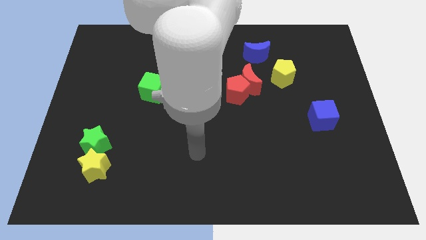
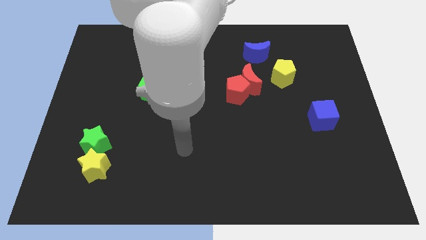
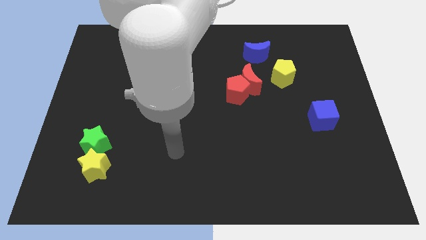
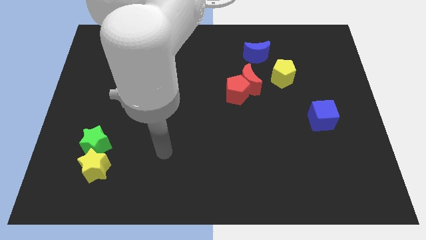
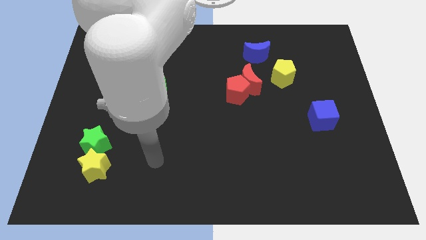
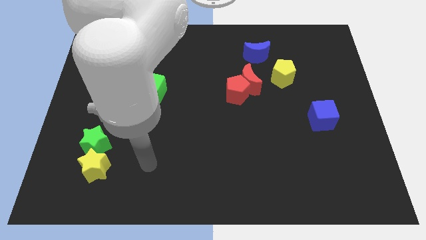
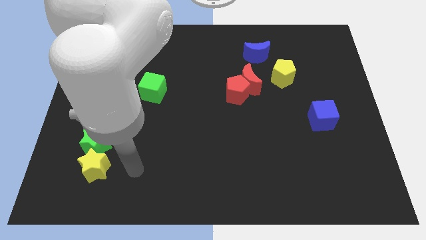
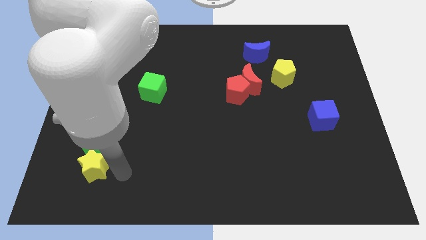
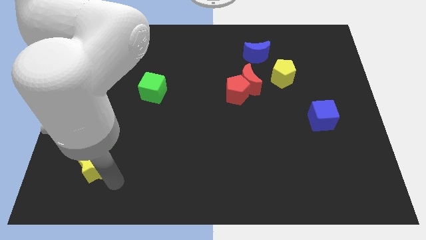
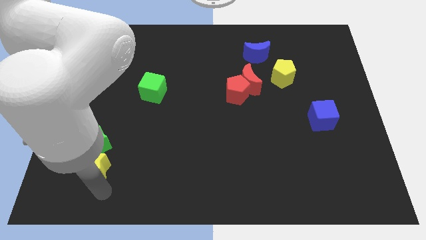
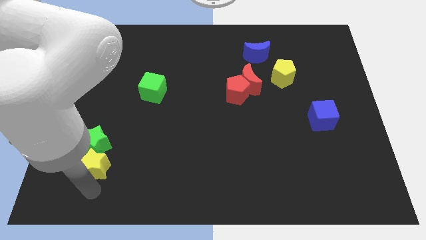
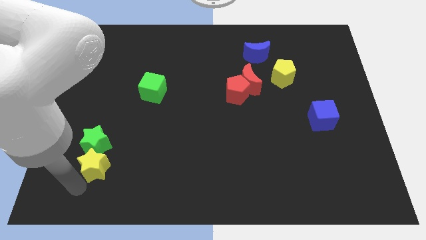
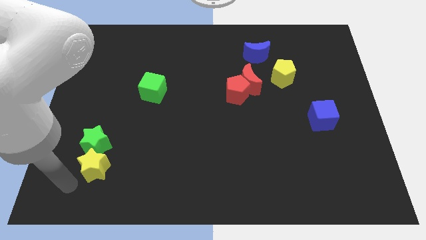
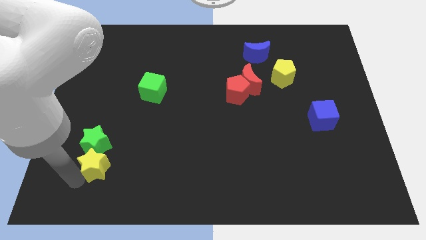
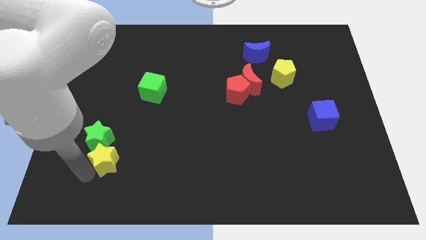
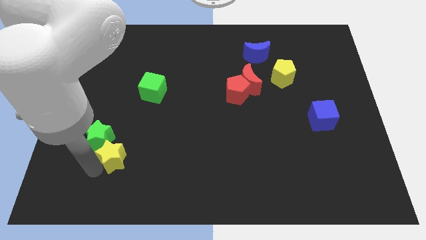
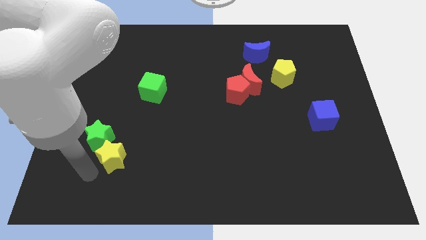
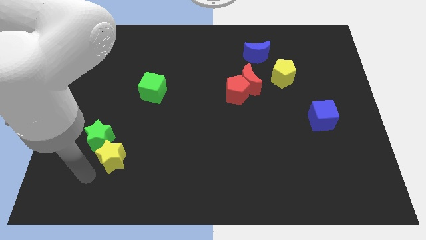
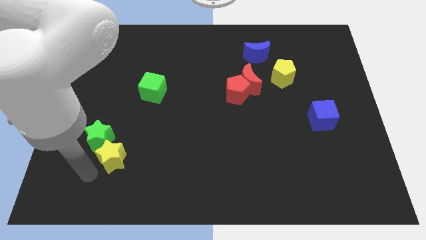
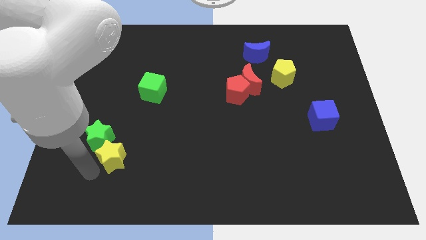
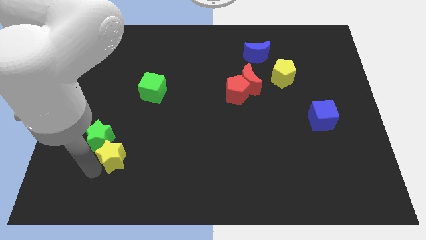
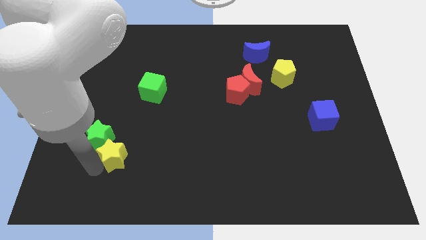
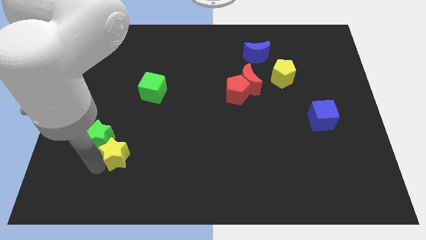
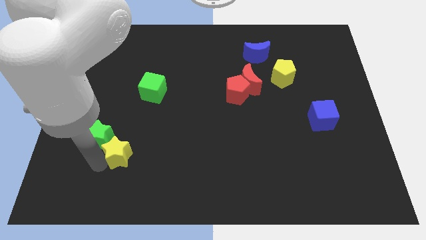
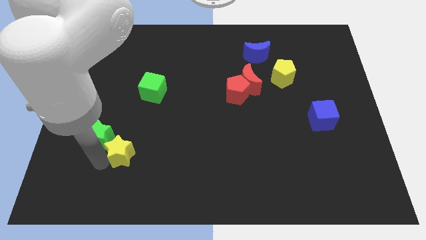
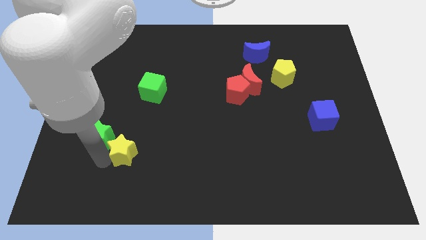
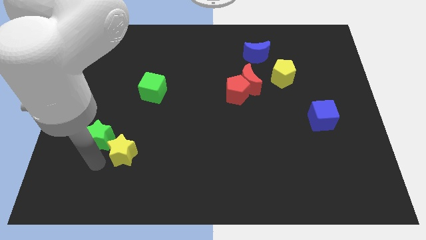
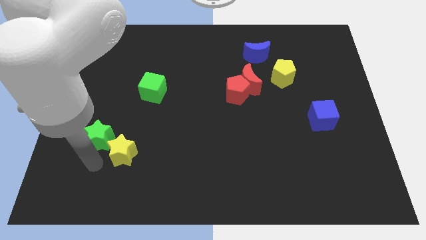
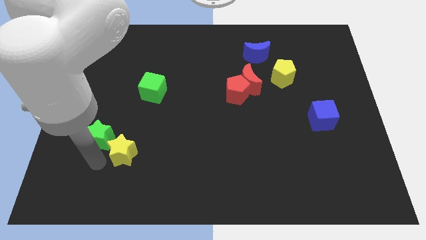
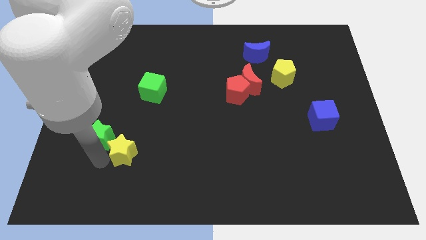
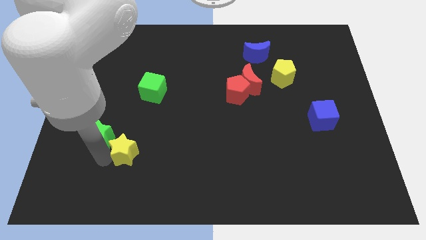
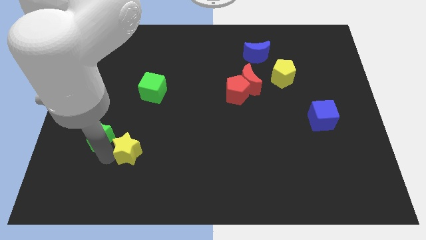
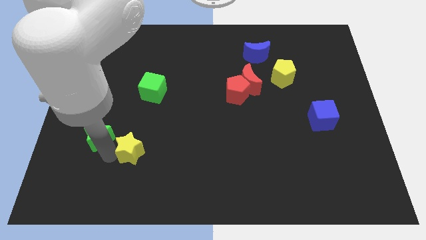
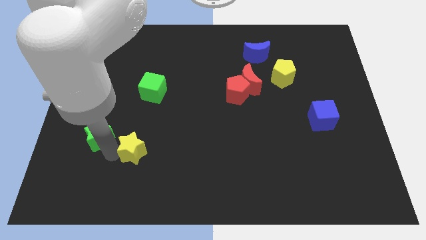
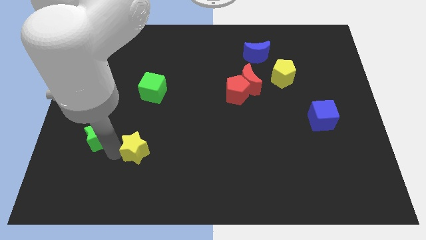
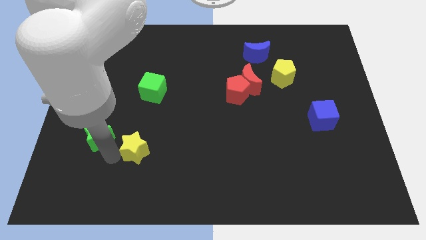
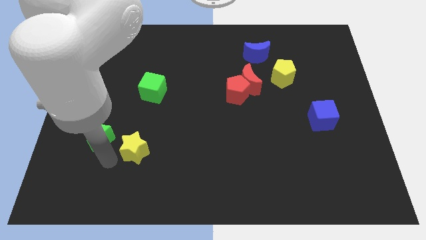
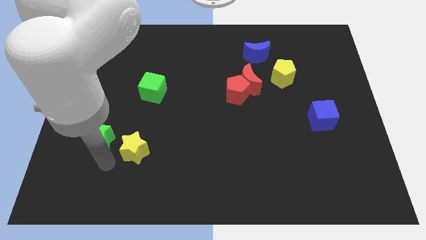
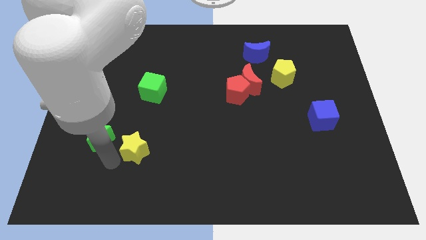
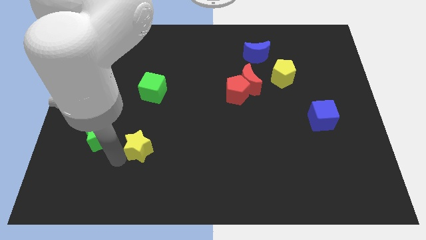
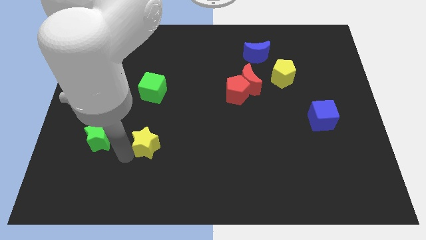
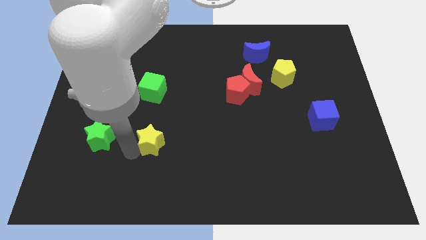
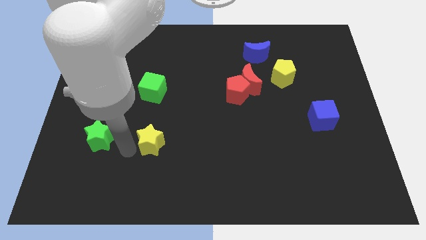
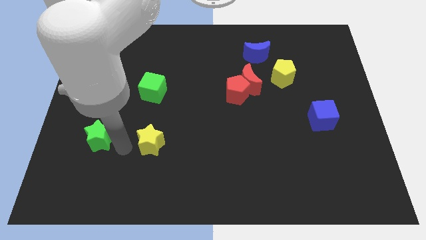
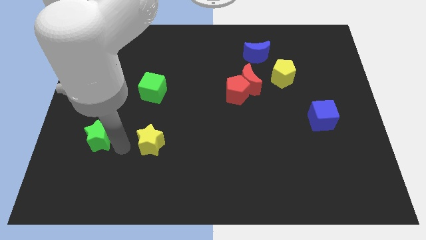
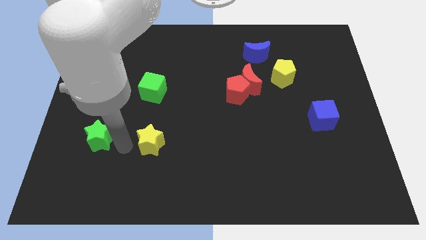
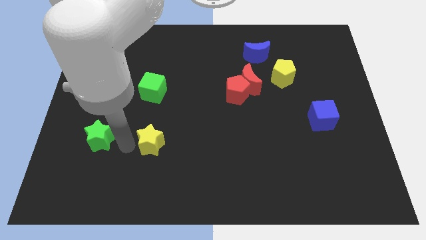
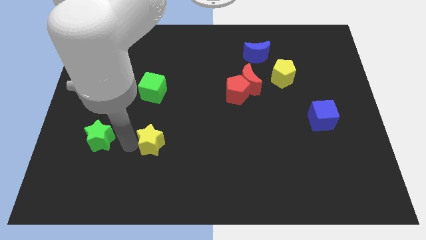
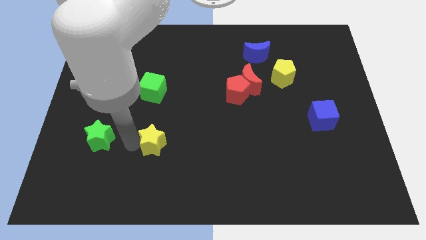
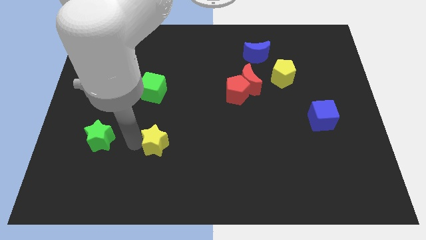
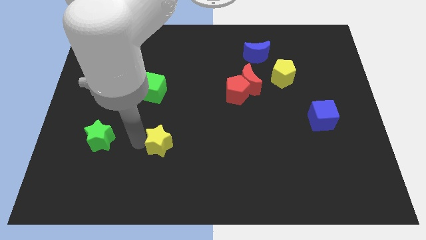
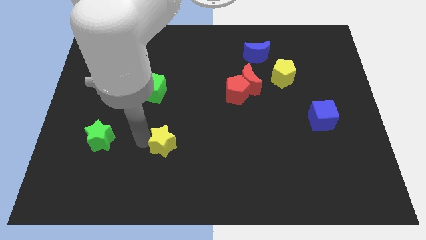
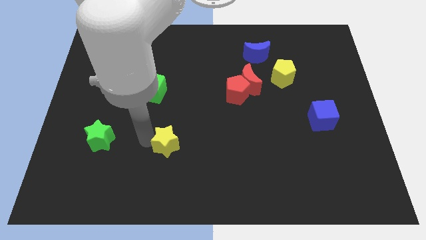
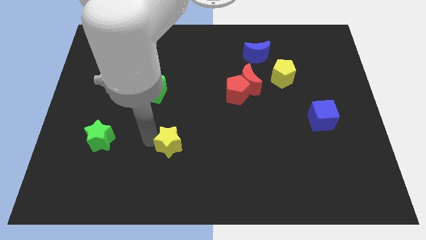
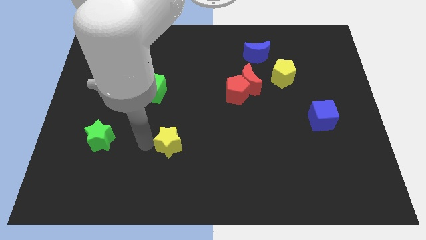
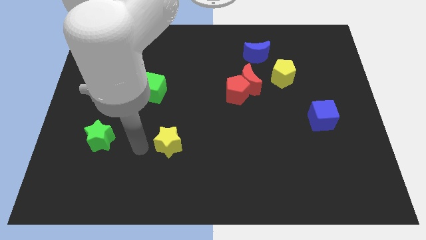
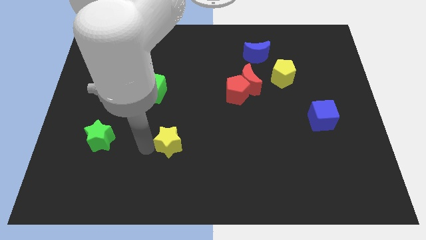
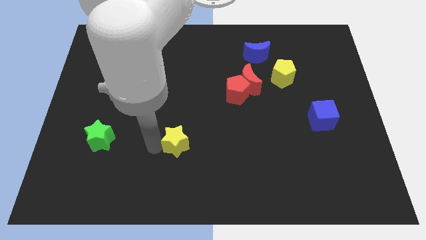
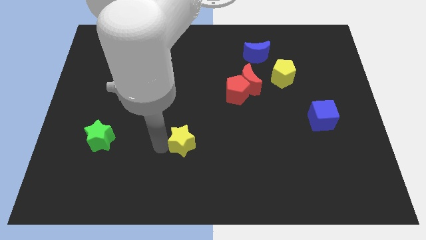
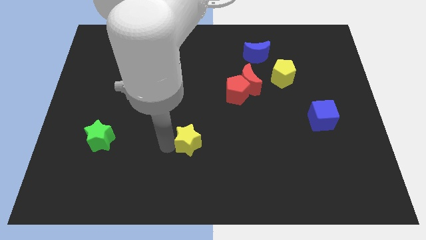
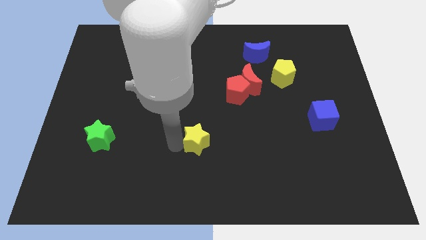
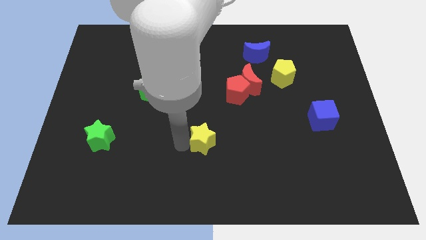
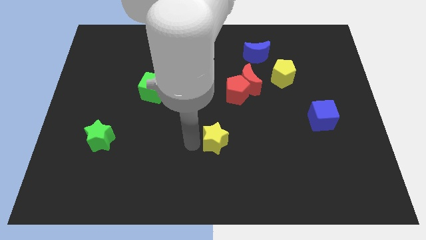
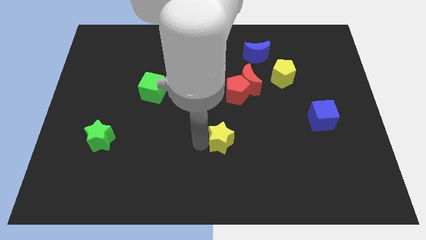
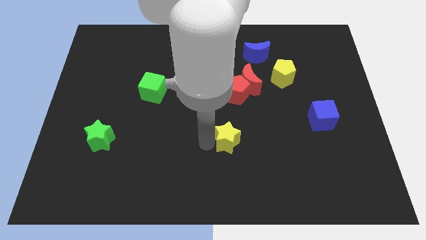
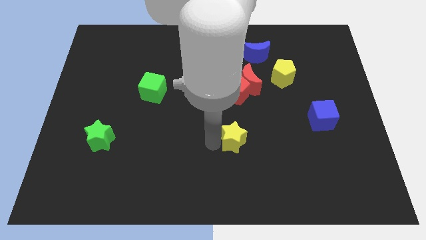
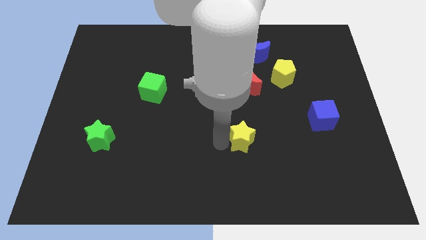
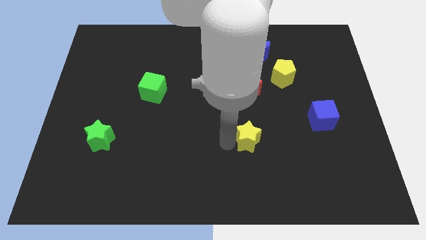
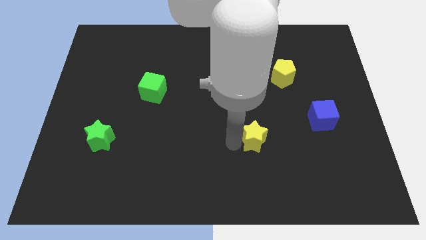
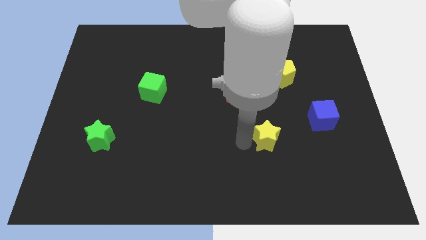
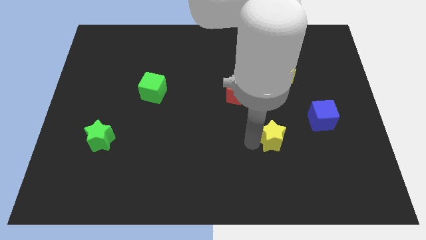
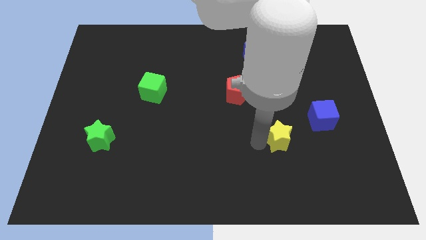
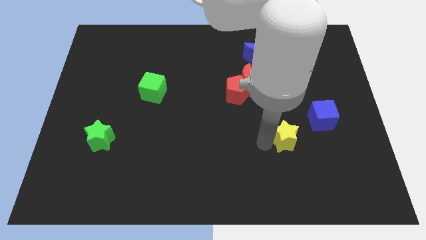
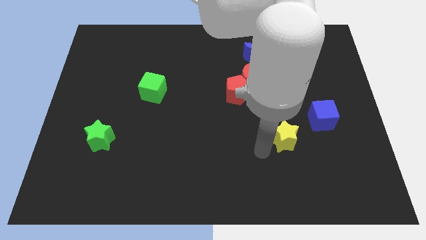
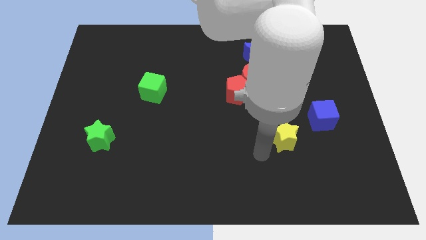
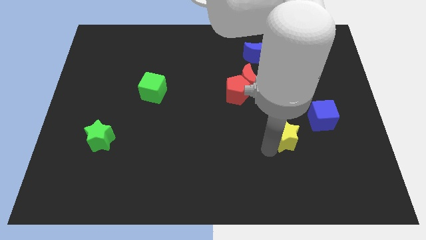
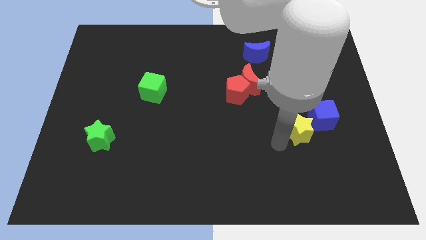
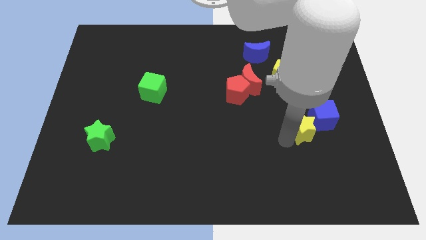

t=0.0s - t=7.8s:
put the yellow star next to the blue cube
